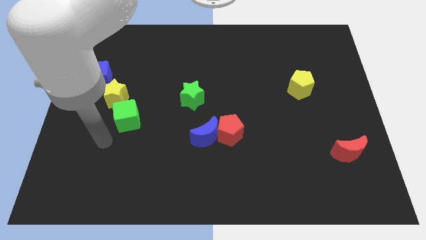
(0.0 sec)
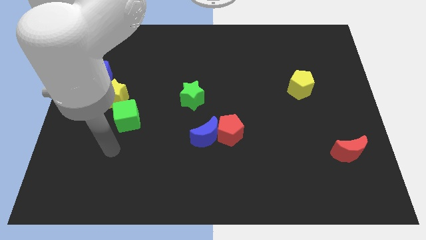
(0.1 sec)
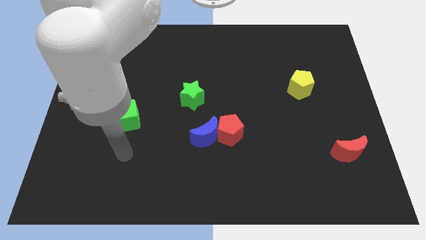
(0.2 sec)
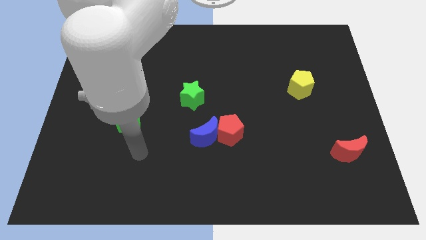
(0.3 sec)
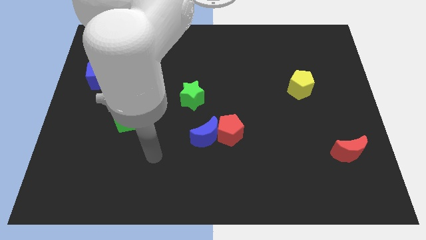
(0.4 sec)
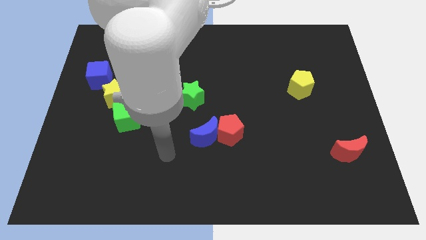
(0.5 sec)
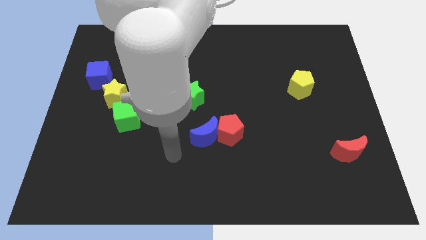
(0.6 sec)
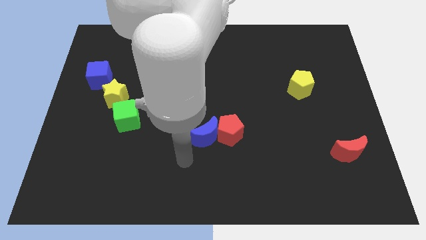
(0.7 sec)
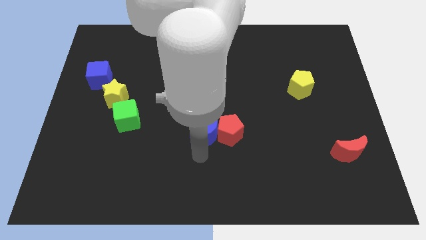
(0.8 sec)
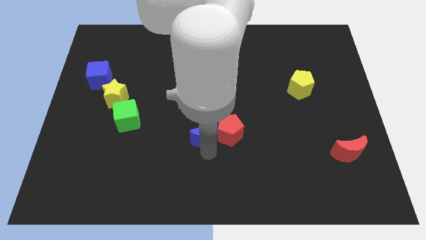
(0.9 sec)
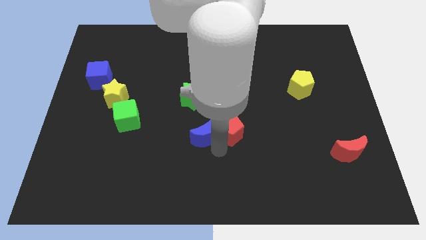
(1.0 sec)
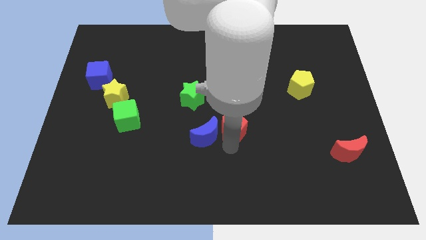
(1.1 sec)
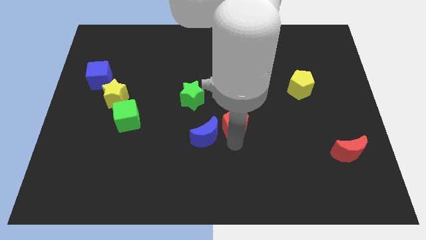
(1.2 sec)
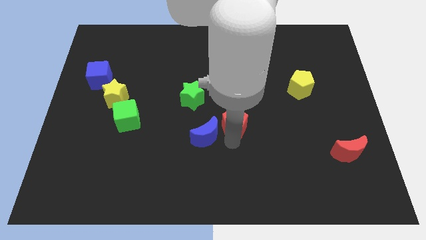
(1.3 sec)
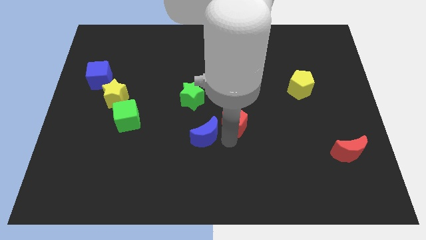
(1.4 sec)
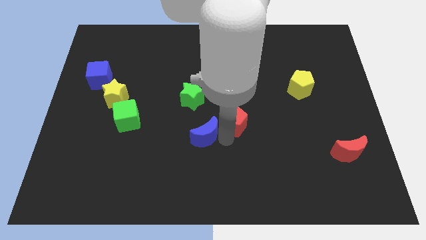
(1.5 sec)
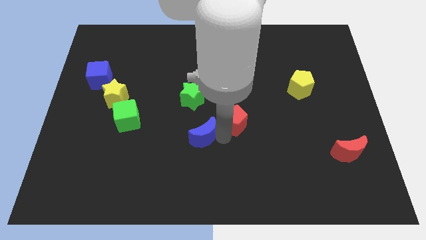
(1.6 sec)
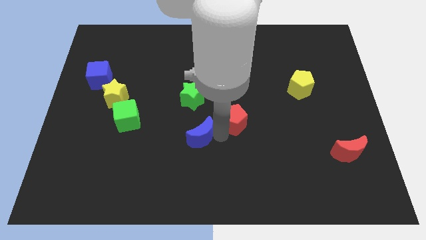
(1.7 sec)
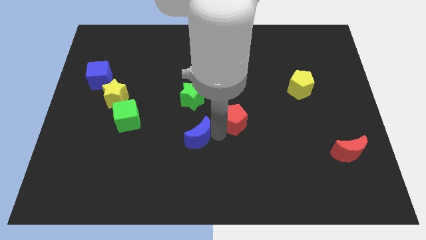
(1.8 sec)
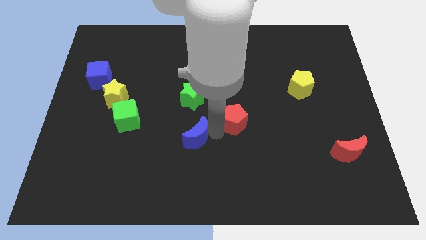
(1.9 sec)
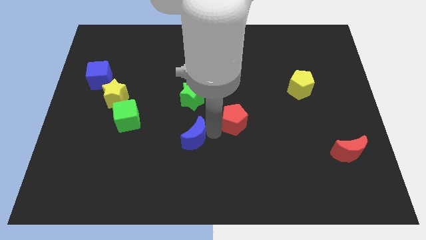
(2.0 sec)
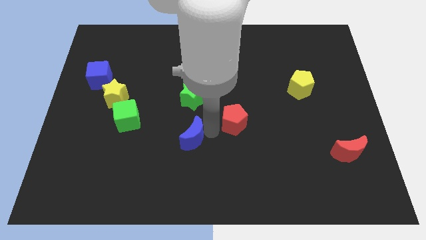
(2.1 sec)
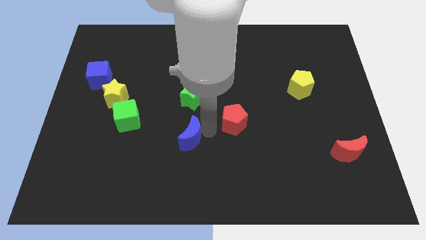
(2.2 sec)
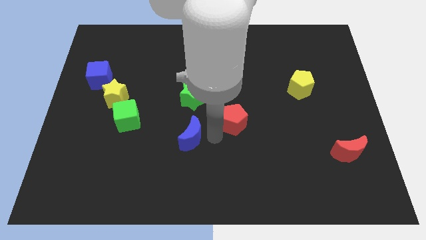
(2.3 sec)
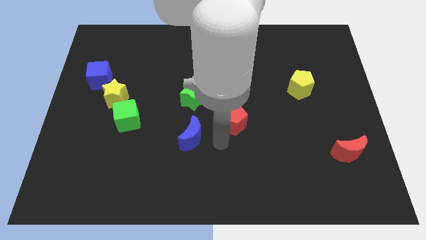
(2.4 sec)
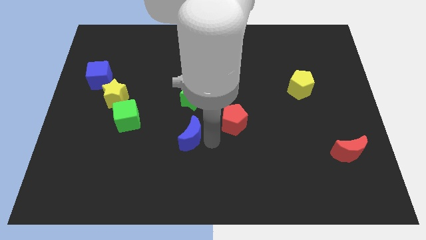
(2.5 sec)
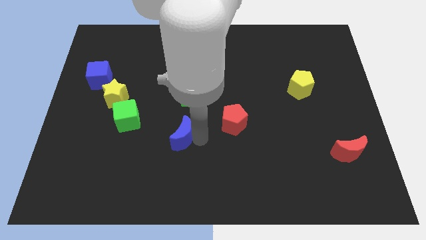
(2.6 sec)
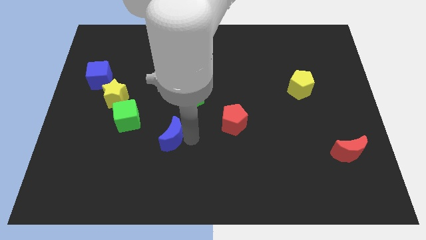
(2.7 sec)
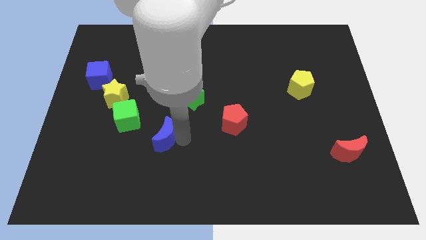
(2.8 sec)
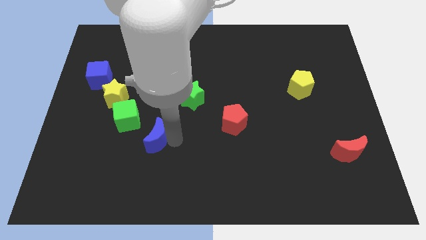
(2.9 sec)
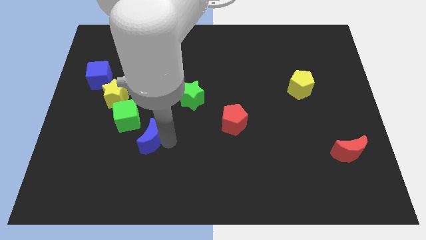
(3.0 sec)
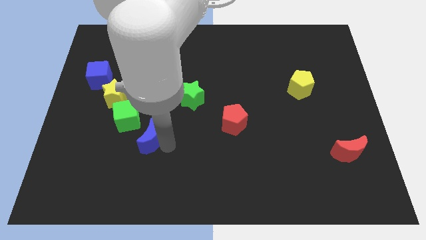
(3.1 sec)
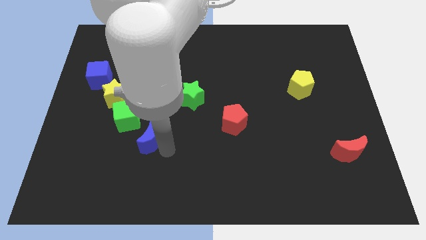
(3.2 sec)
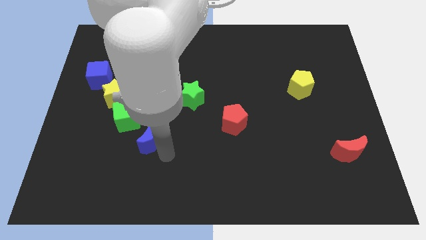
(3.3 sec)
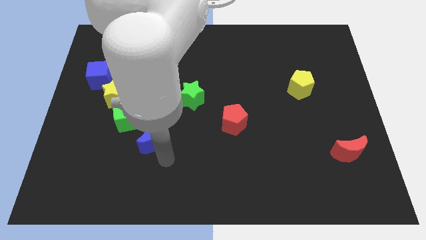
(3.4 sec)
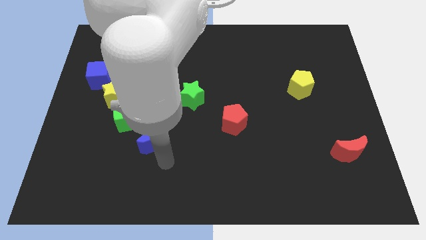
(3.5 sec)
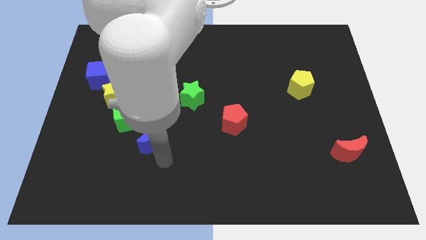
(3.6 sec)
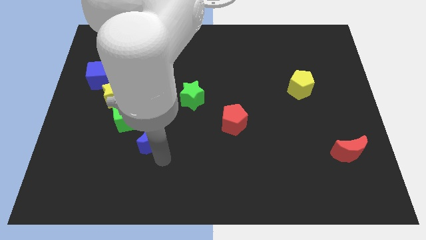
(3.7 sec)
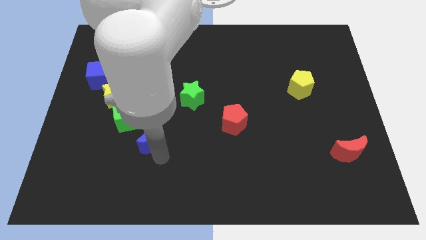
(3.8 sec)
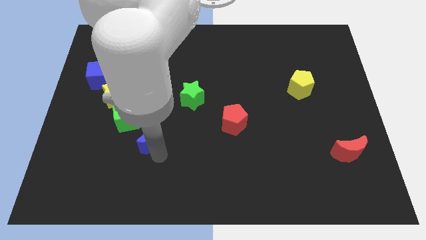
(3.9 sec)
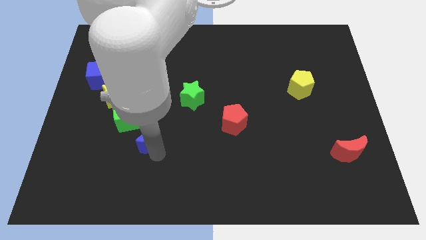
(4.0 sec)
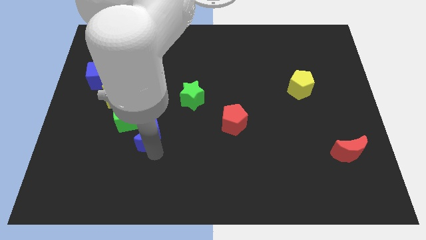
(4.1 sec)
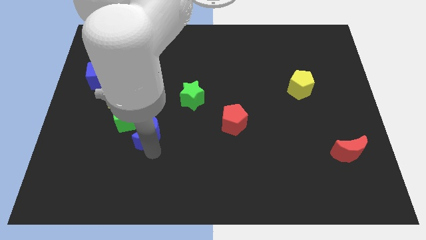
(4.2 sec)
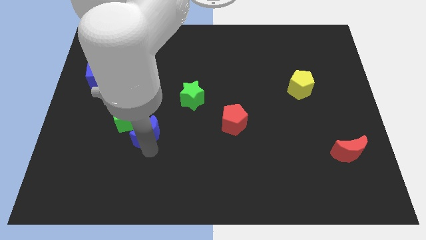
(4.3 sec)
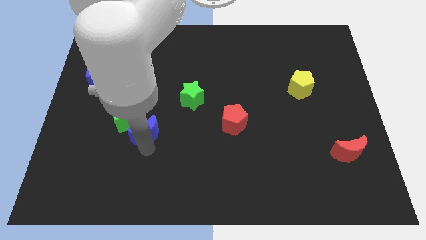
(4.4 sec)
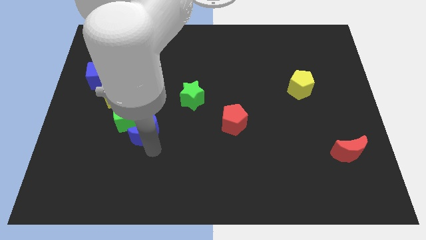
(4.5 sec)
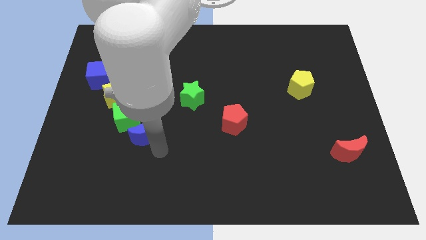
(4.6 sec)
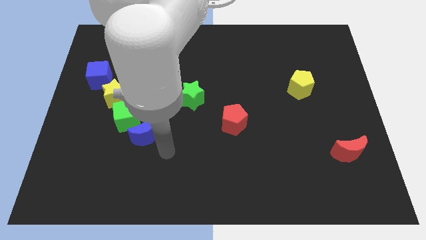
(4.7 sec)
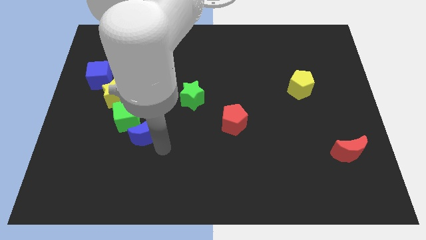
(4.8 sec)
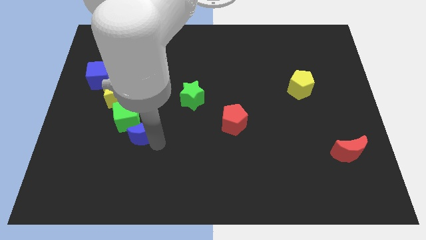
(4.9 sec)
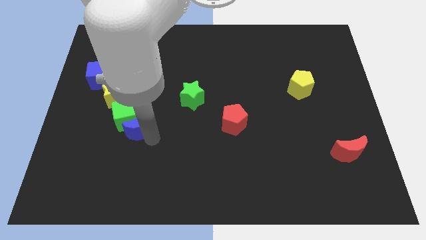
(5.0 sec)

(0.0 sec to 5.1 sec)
slide the blue moon close to the green cube

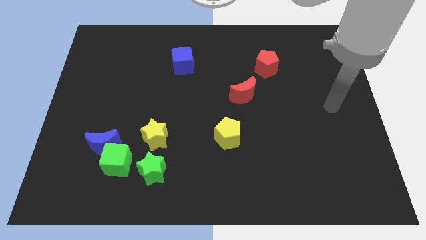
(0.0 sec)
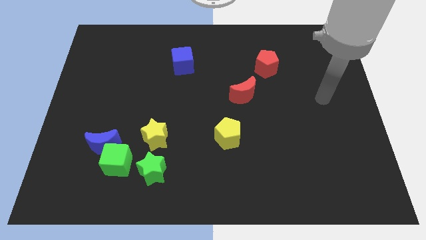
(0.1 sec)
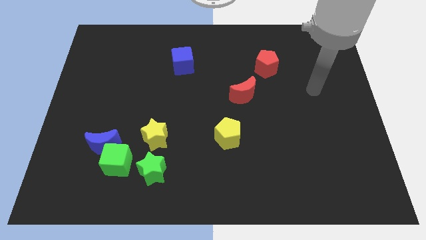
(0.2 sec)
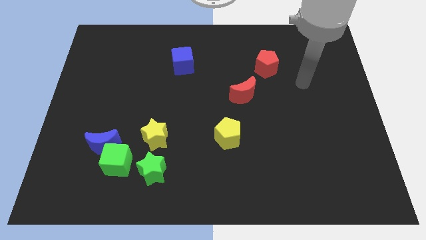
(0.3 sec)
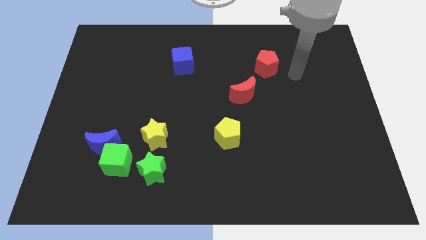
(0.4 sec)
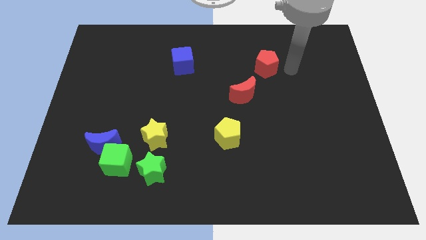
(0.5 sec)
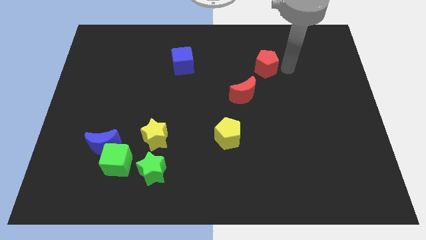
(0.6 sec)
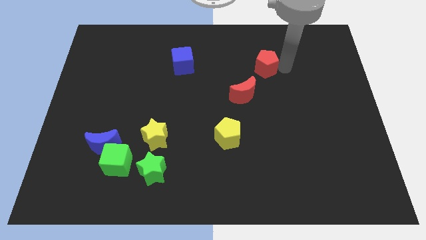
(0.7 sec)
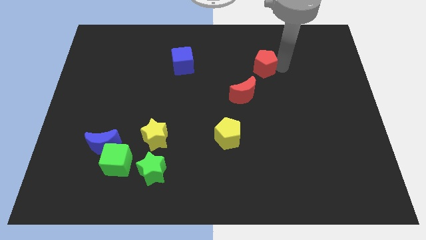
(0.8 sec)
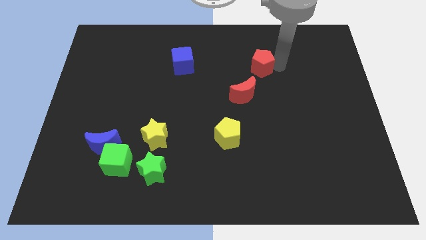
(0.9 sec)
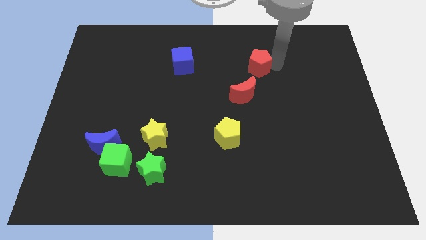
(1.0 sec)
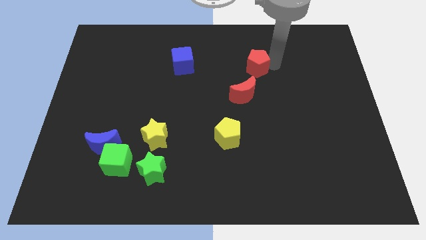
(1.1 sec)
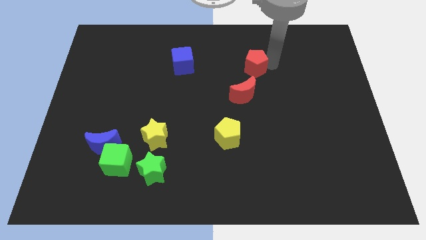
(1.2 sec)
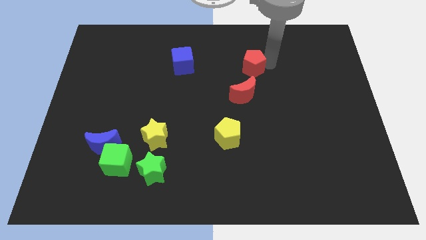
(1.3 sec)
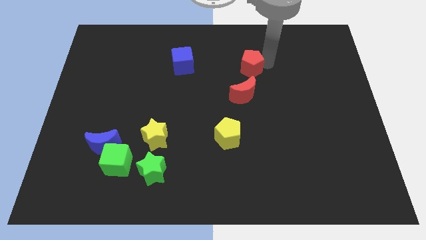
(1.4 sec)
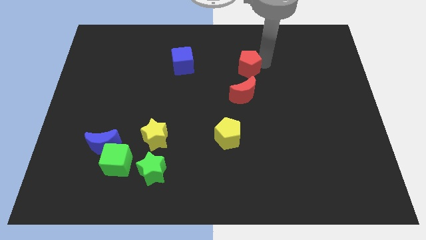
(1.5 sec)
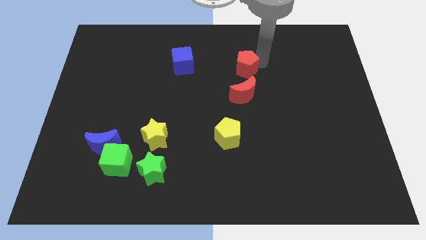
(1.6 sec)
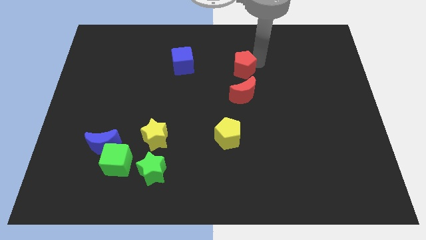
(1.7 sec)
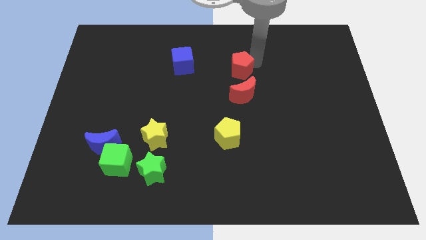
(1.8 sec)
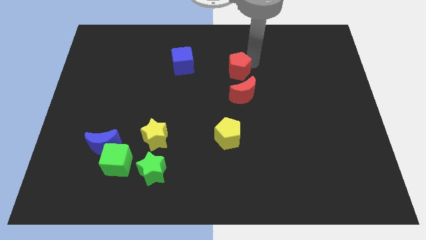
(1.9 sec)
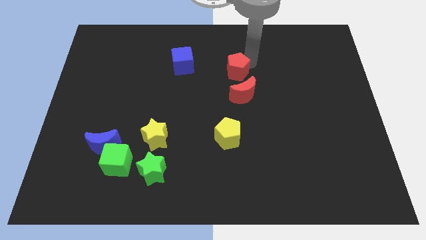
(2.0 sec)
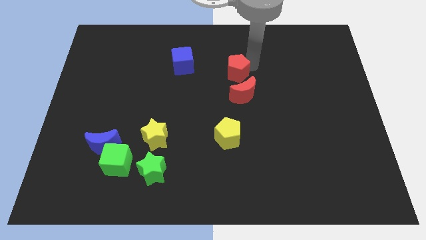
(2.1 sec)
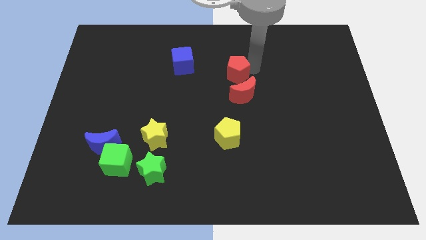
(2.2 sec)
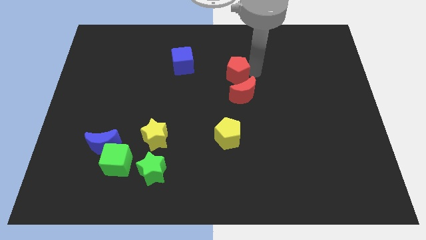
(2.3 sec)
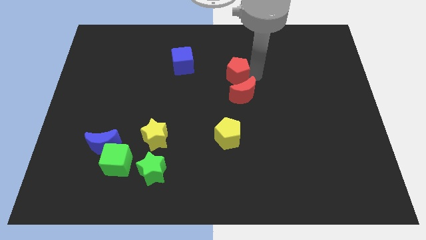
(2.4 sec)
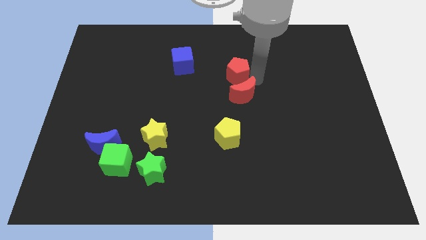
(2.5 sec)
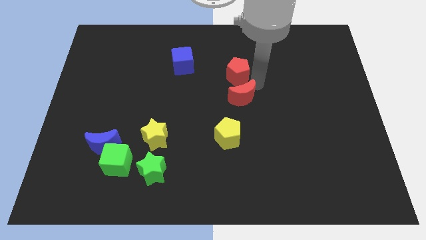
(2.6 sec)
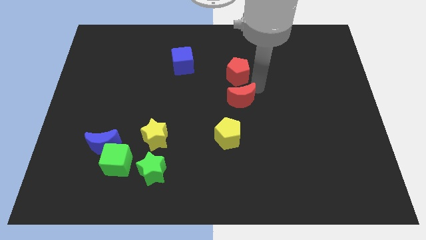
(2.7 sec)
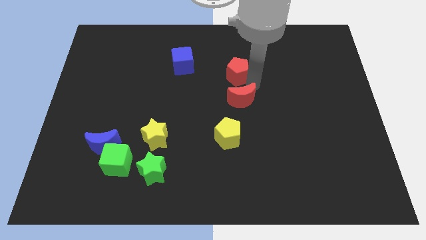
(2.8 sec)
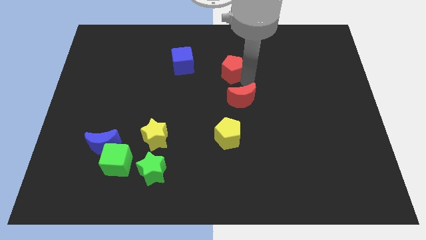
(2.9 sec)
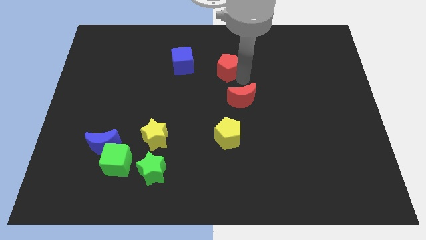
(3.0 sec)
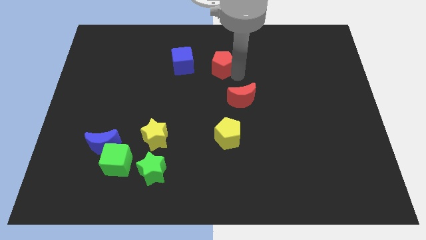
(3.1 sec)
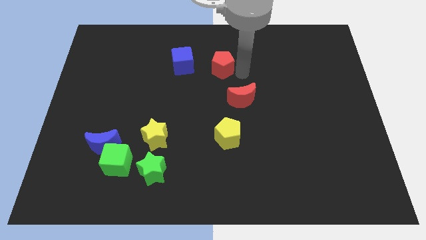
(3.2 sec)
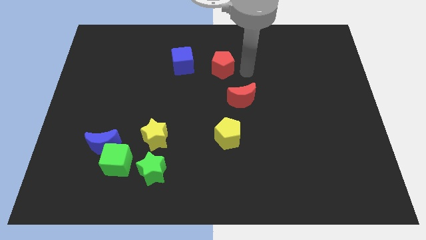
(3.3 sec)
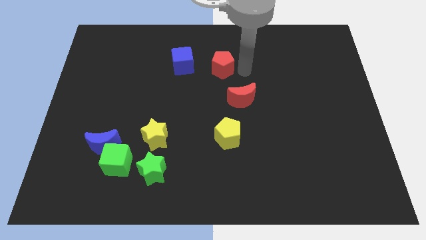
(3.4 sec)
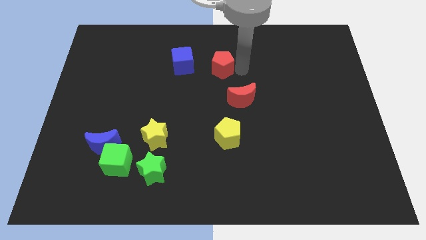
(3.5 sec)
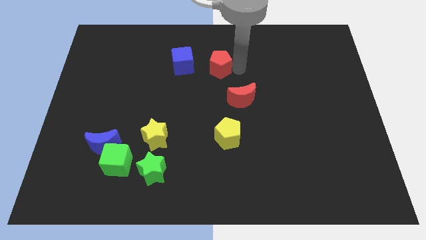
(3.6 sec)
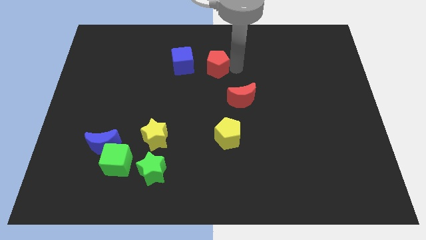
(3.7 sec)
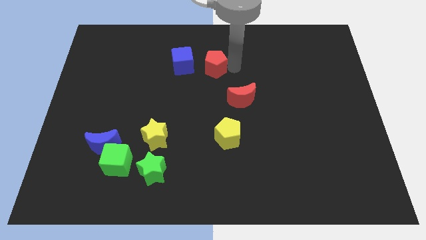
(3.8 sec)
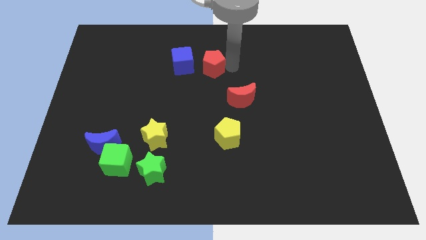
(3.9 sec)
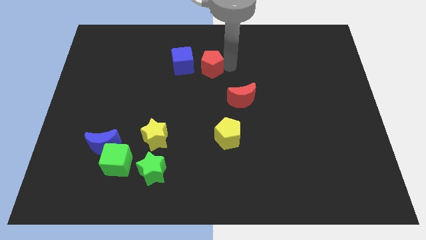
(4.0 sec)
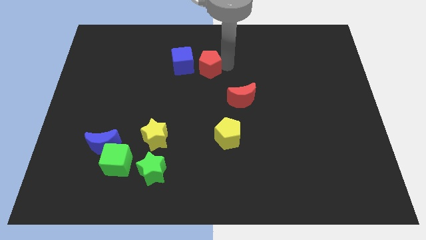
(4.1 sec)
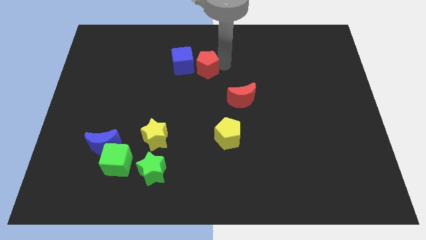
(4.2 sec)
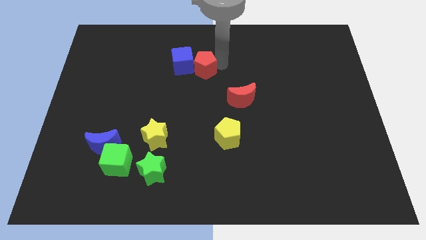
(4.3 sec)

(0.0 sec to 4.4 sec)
slide the red pentagon to the blue cube
